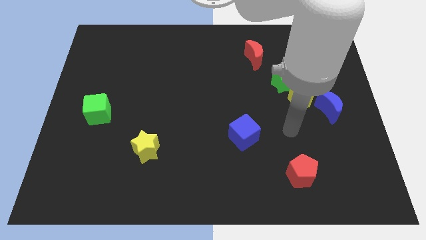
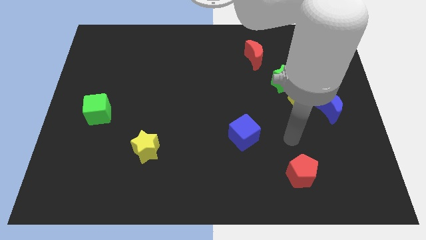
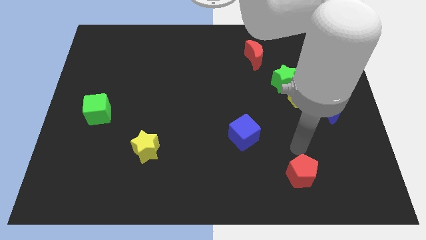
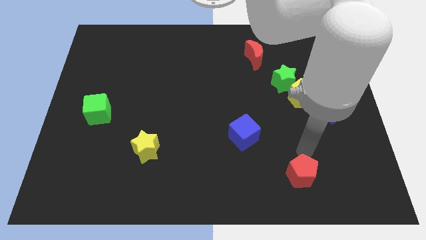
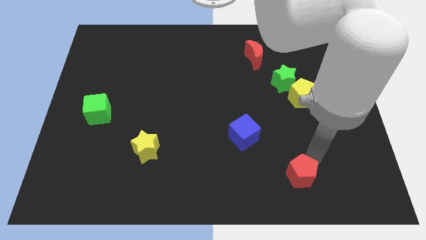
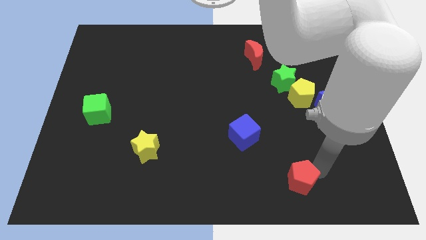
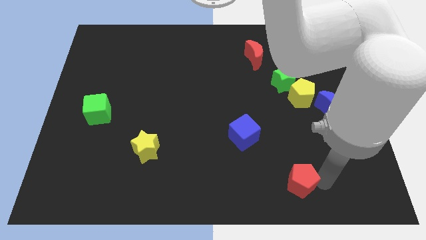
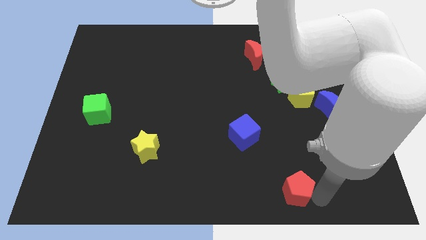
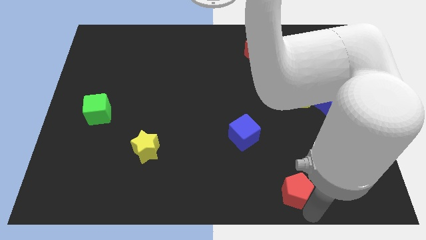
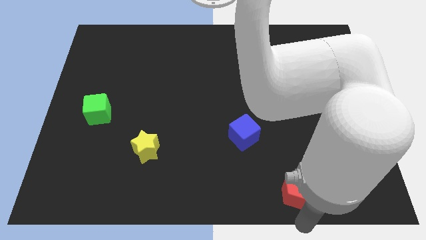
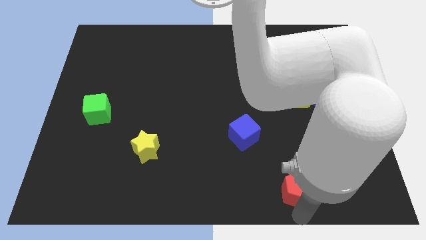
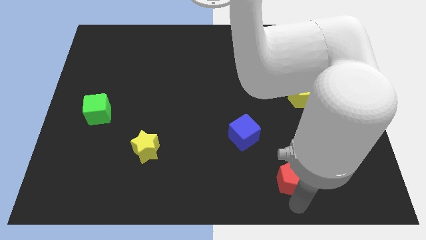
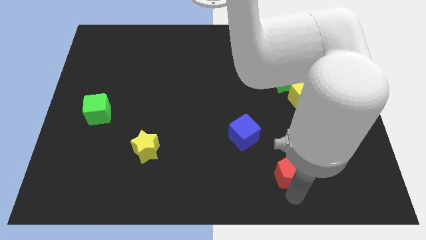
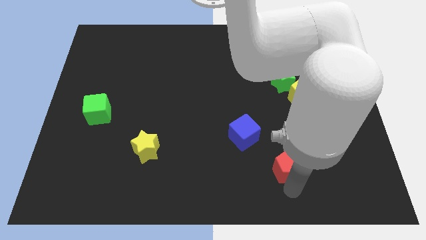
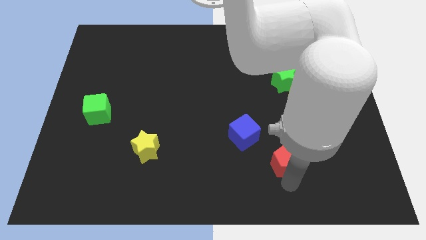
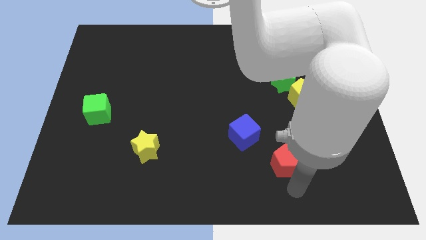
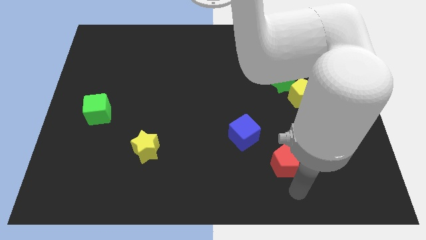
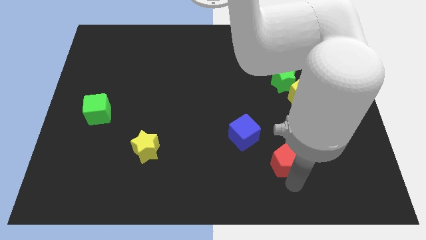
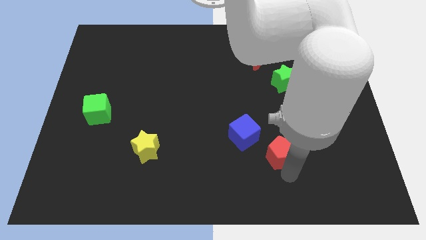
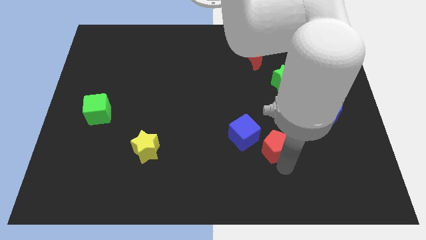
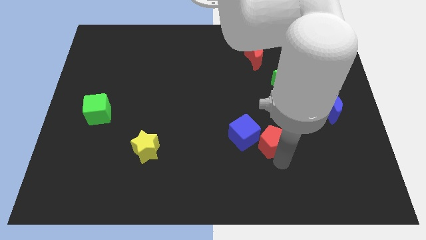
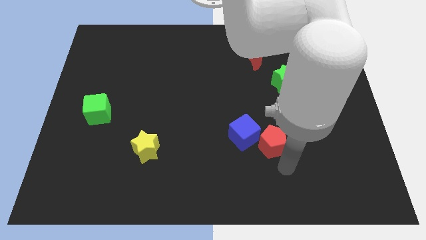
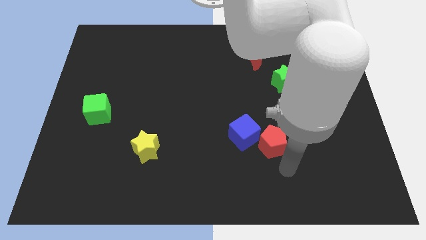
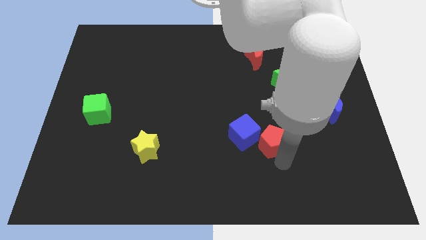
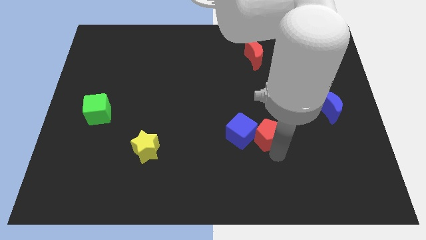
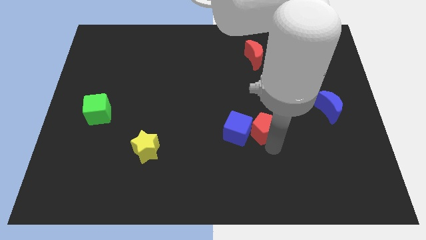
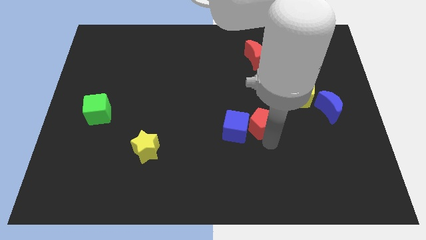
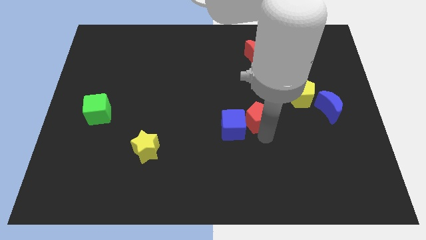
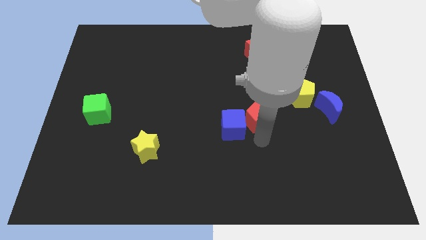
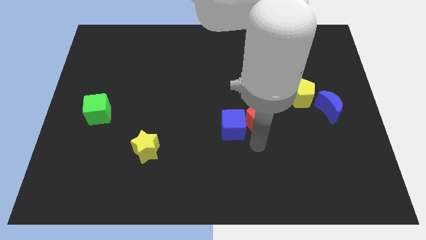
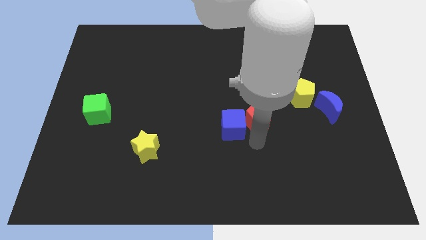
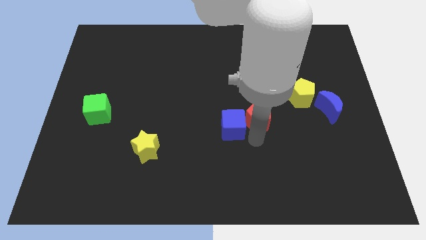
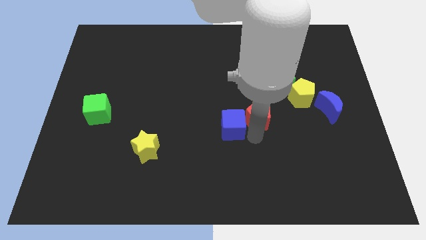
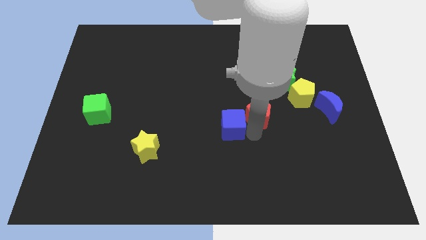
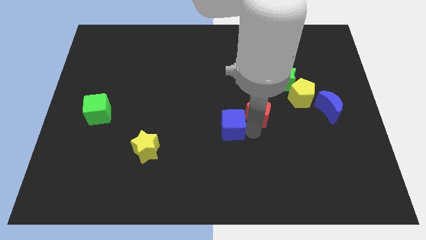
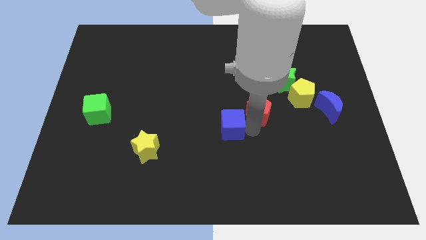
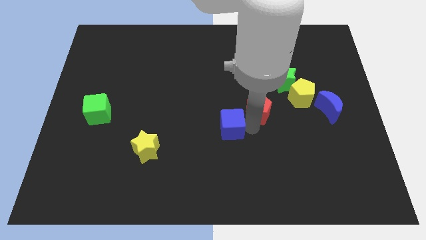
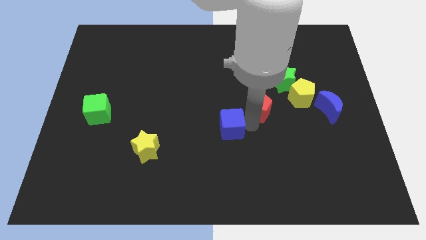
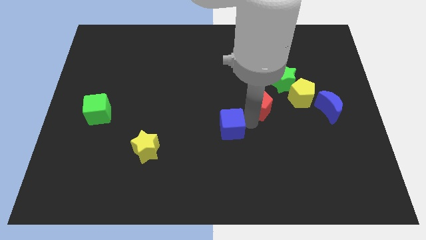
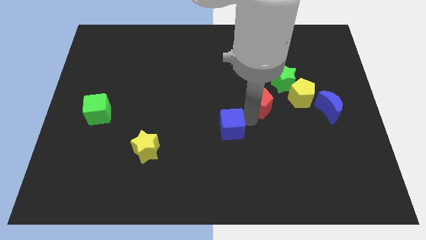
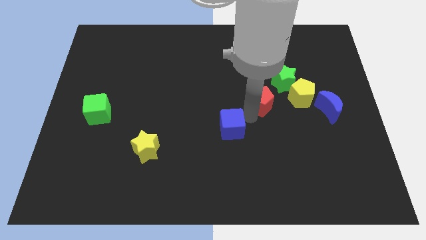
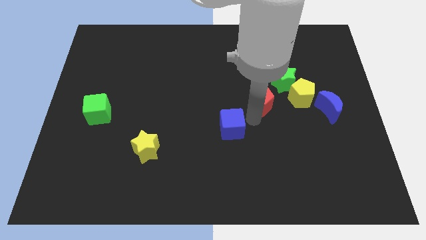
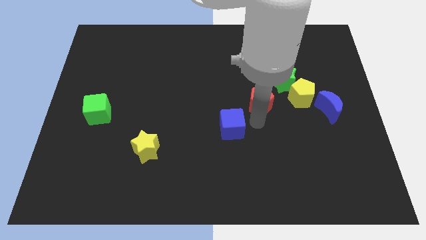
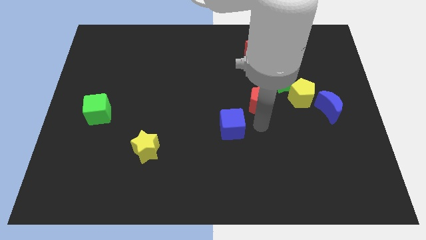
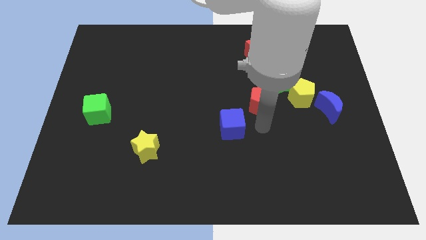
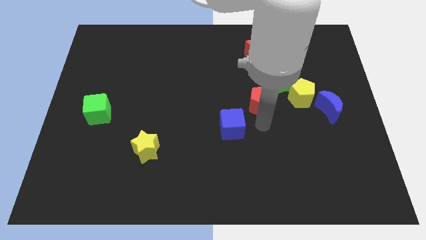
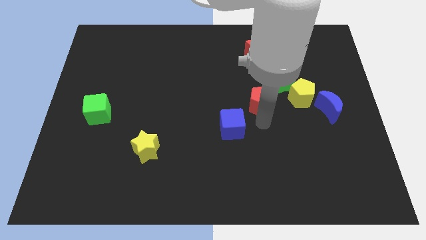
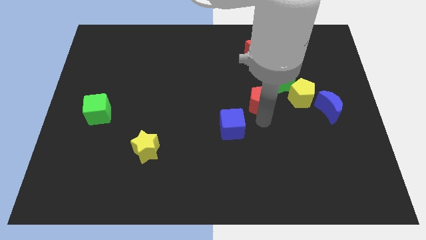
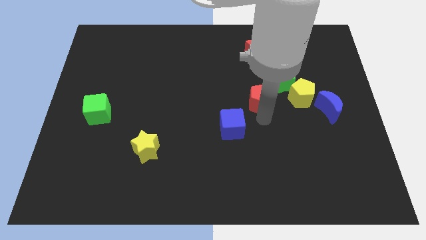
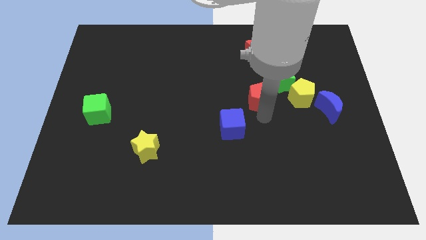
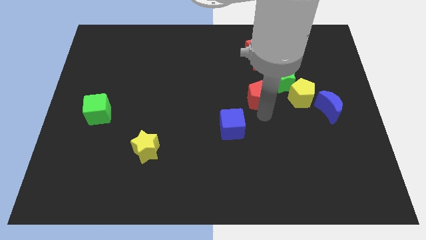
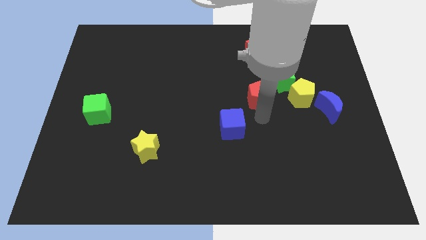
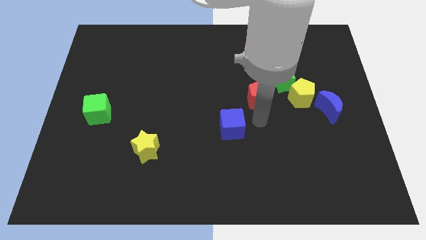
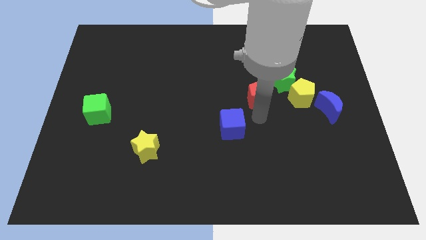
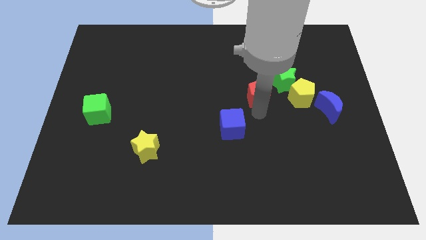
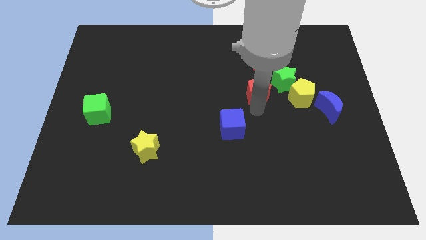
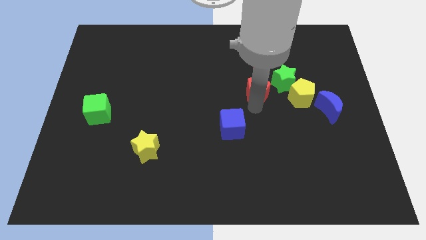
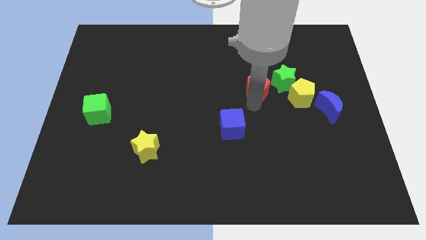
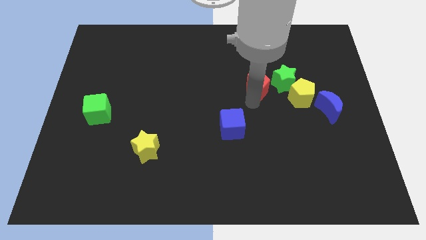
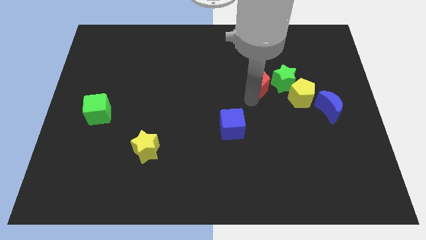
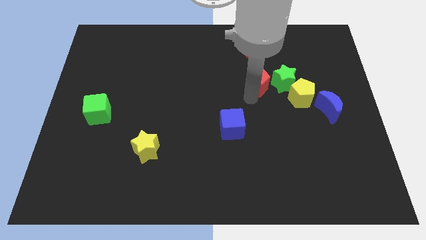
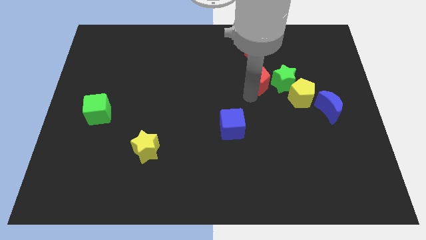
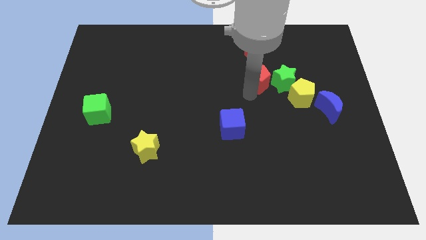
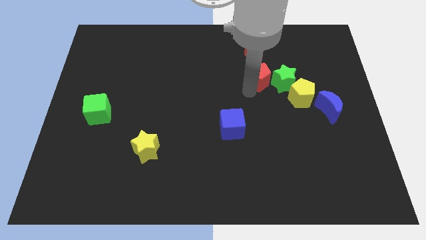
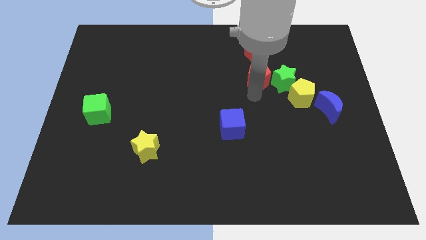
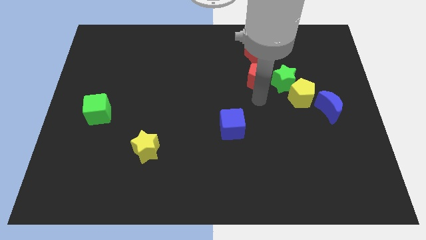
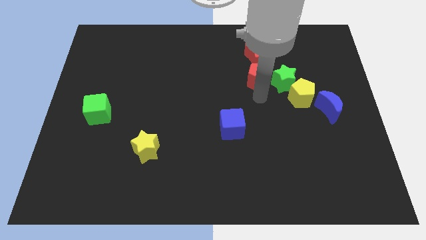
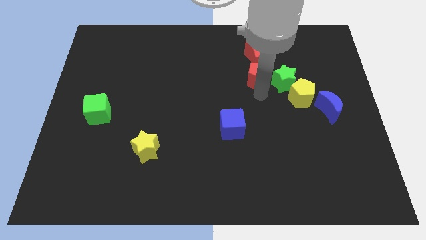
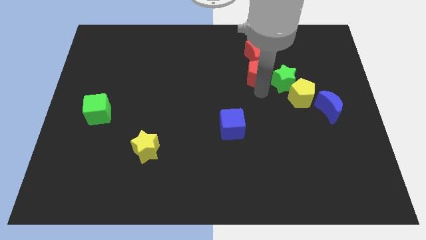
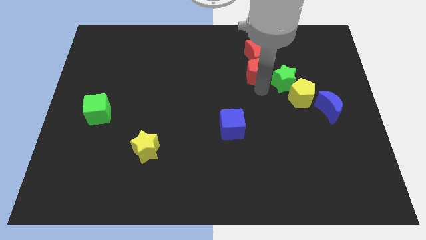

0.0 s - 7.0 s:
move the red pentagon to the red moon

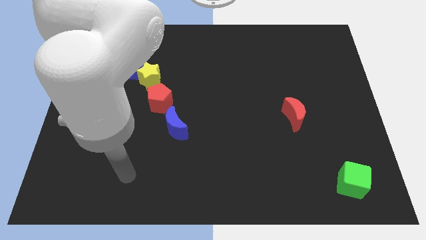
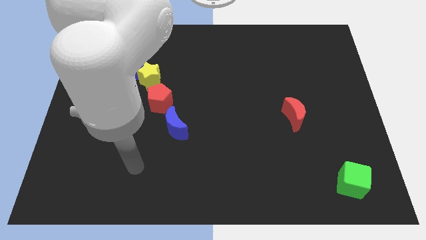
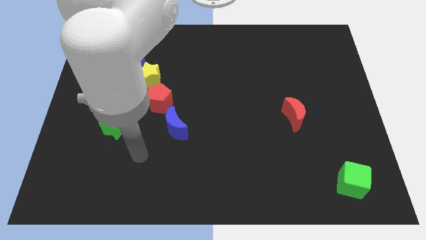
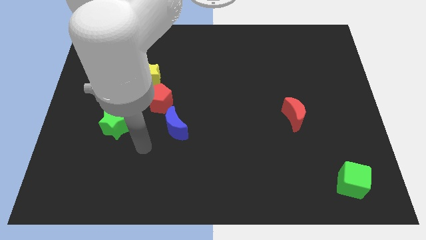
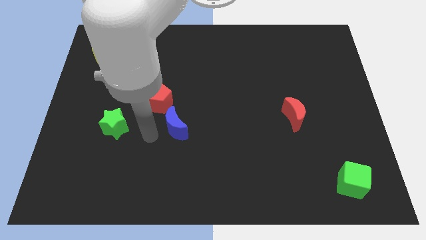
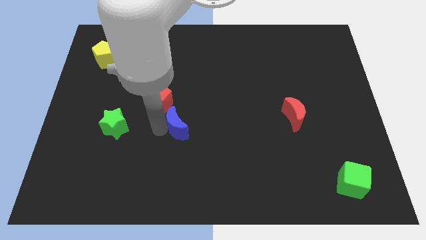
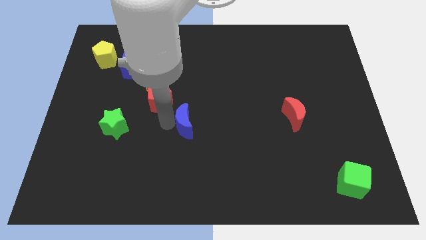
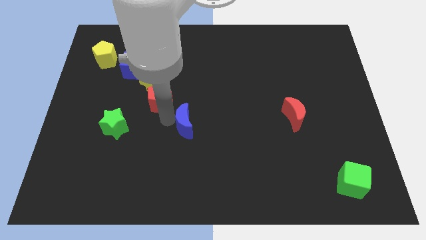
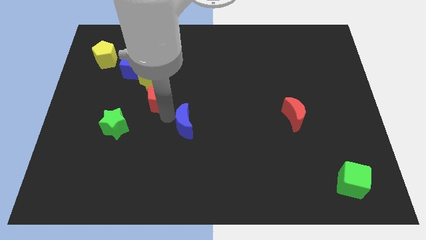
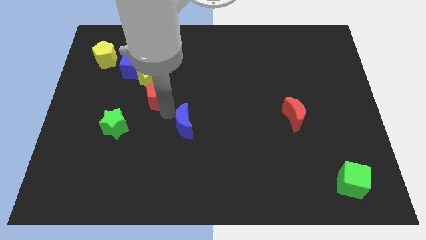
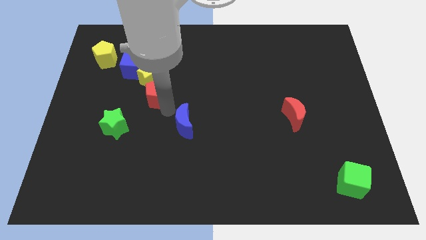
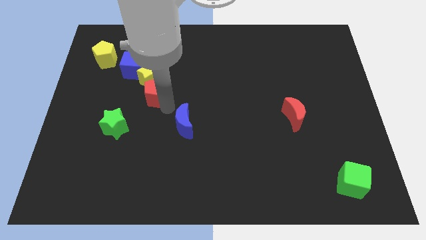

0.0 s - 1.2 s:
move the red pentagon towards the yellow star
